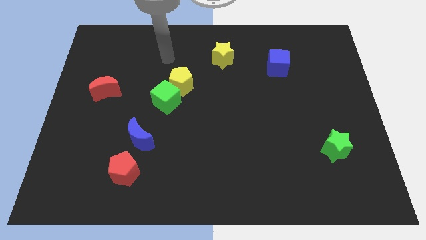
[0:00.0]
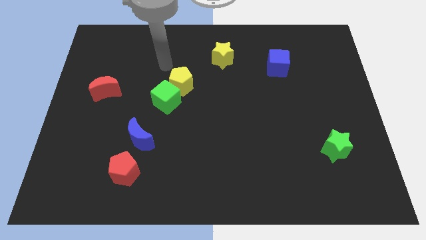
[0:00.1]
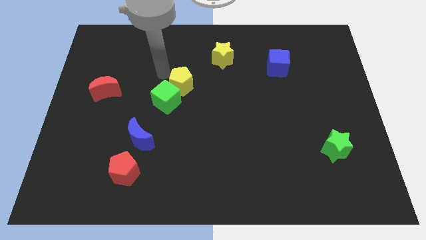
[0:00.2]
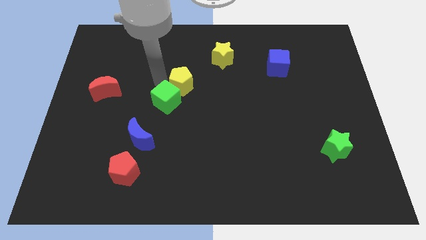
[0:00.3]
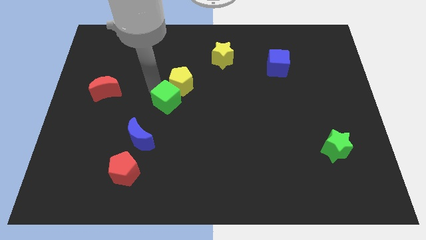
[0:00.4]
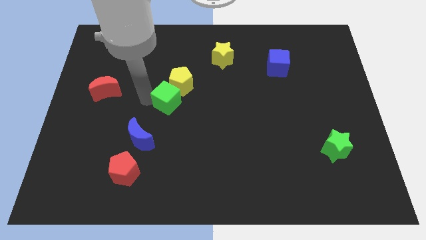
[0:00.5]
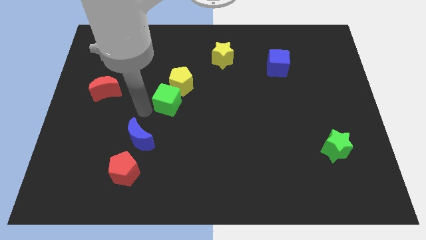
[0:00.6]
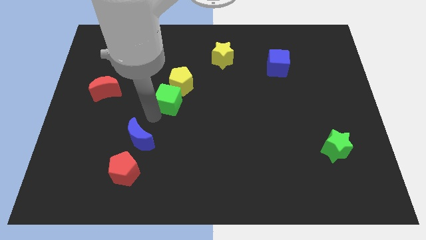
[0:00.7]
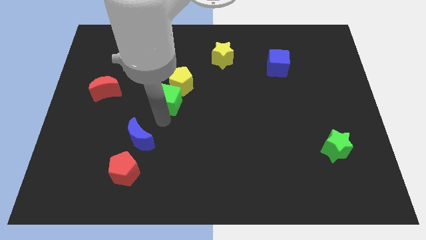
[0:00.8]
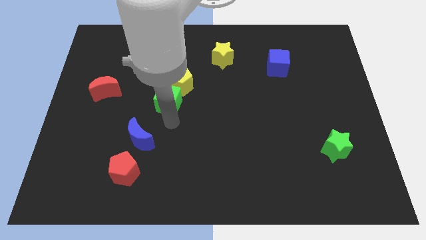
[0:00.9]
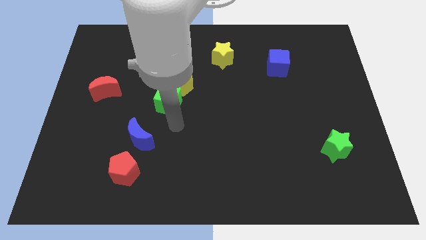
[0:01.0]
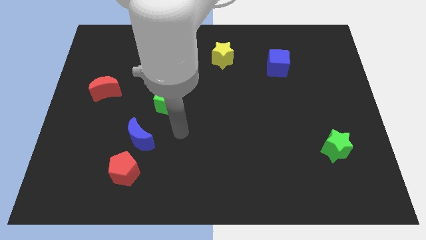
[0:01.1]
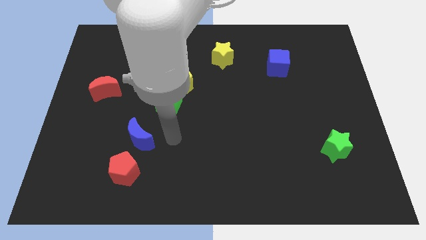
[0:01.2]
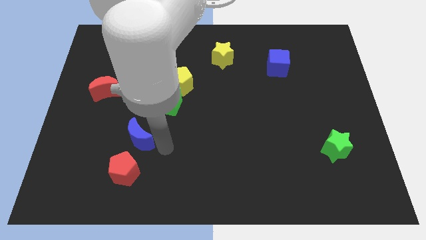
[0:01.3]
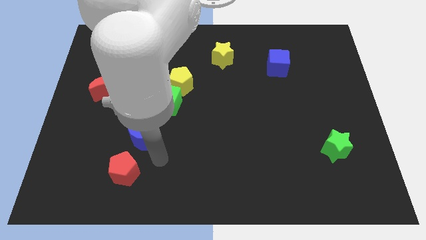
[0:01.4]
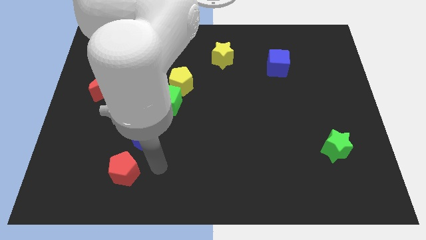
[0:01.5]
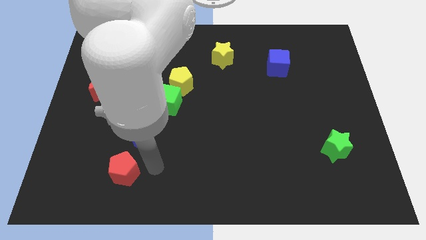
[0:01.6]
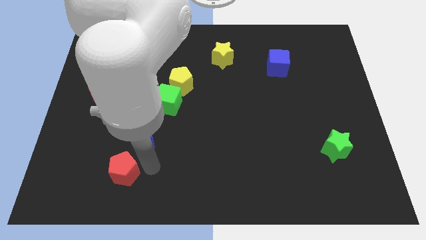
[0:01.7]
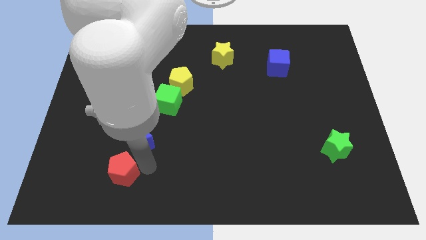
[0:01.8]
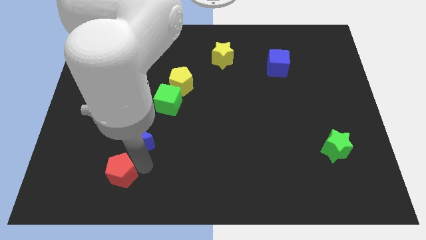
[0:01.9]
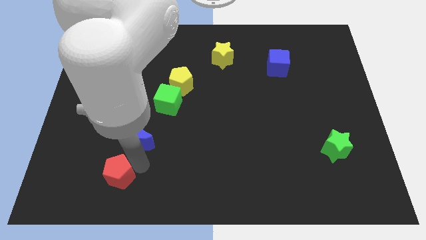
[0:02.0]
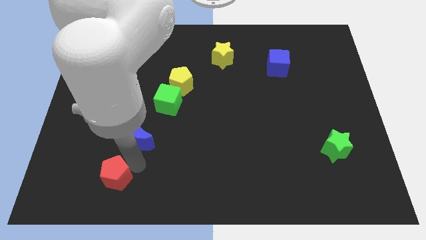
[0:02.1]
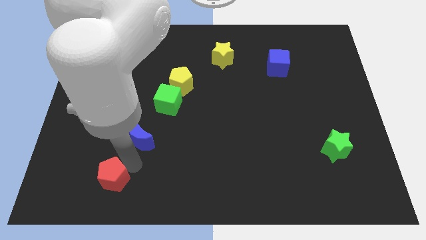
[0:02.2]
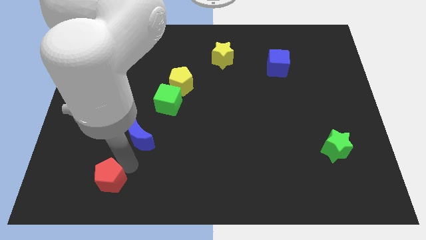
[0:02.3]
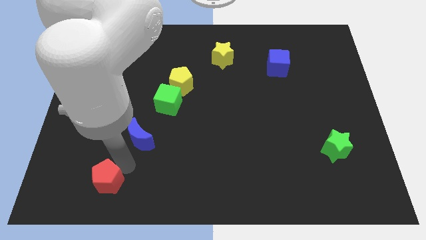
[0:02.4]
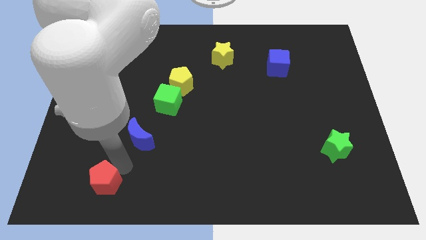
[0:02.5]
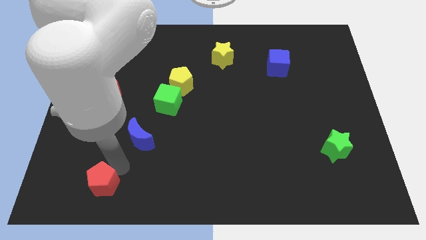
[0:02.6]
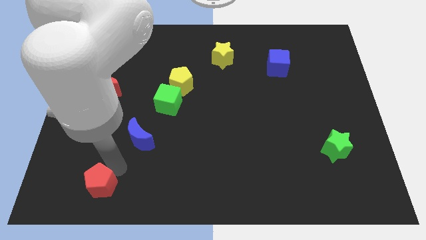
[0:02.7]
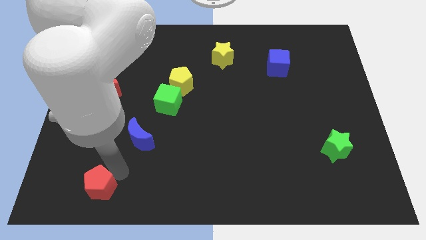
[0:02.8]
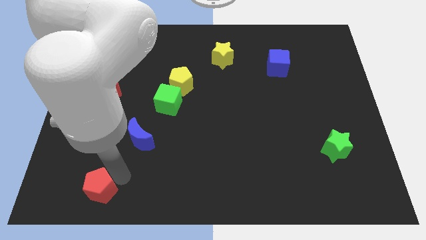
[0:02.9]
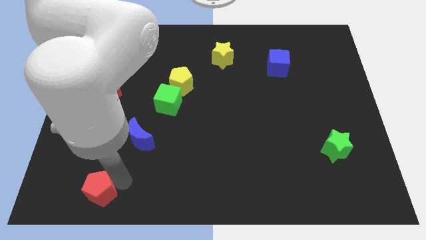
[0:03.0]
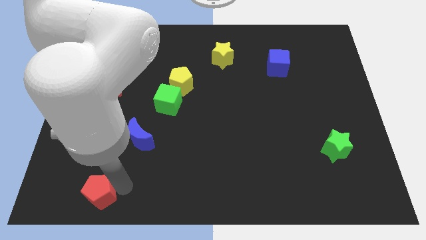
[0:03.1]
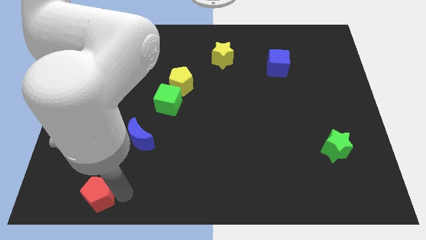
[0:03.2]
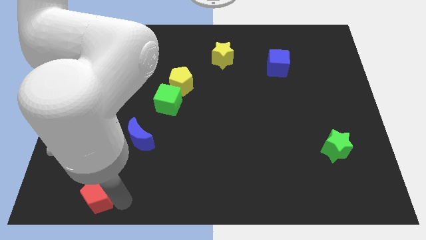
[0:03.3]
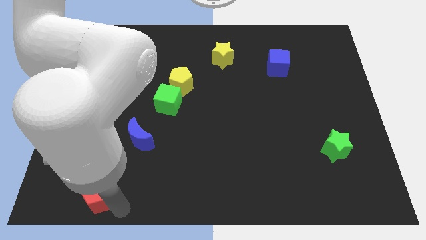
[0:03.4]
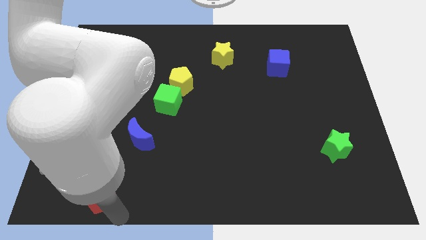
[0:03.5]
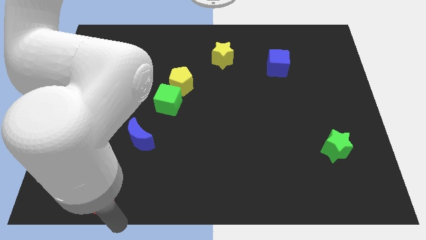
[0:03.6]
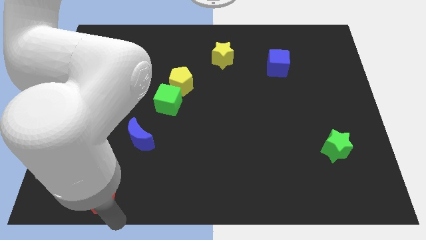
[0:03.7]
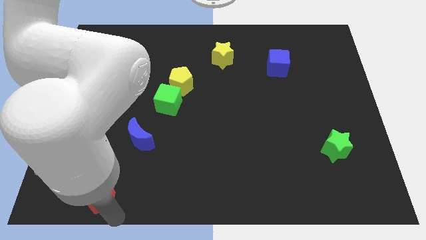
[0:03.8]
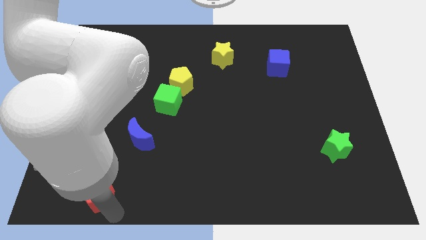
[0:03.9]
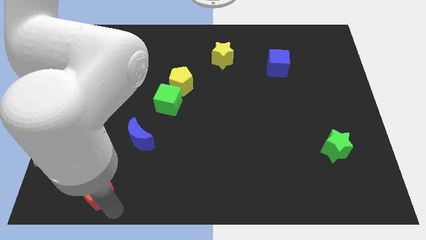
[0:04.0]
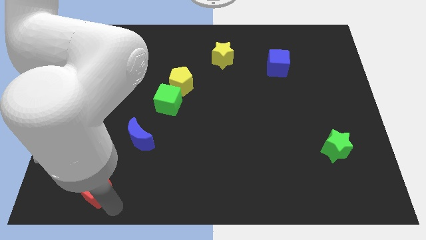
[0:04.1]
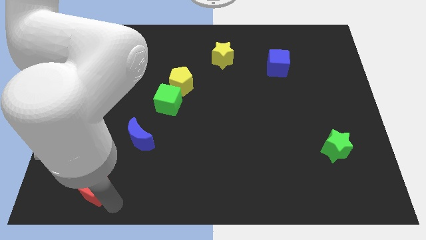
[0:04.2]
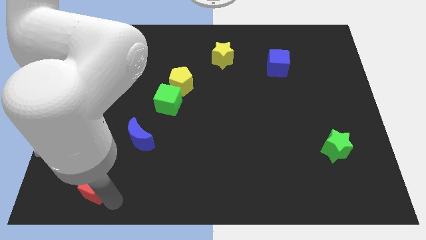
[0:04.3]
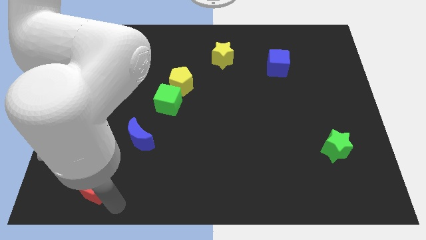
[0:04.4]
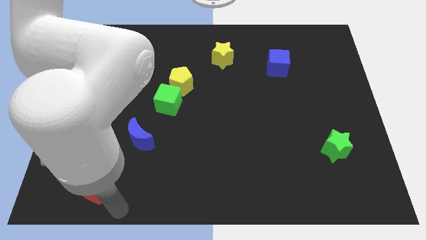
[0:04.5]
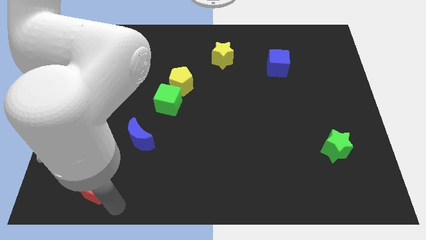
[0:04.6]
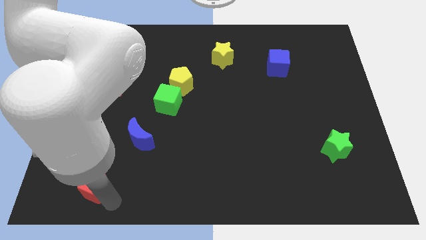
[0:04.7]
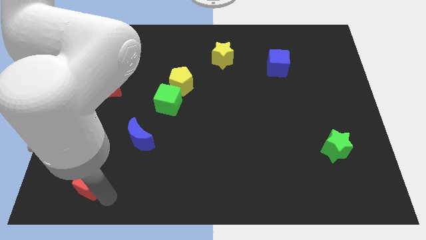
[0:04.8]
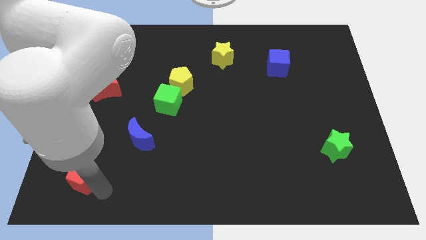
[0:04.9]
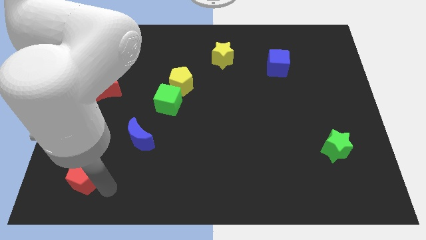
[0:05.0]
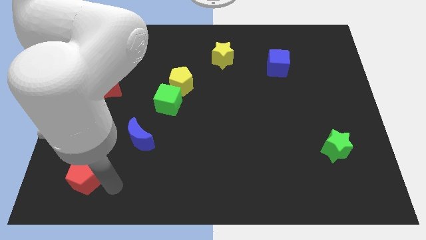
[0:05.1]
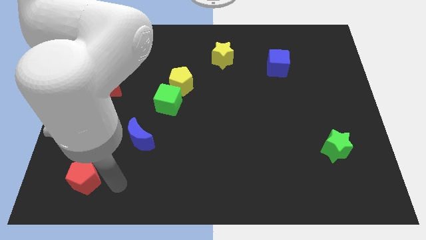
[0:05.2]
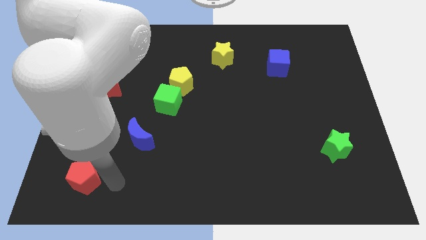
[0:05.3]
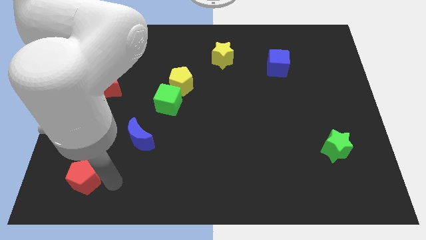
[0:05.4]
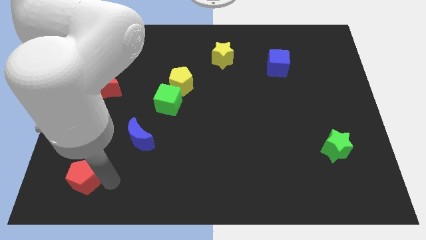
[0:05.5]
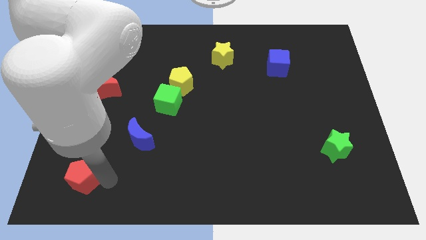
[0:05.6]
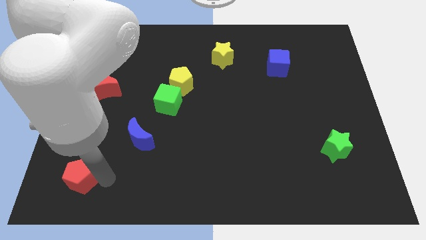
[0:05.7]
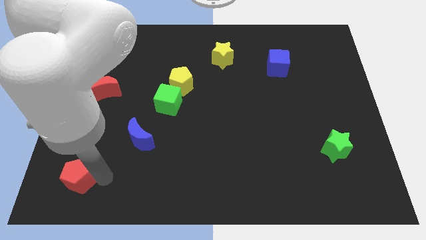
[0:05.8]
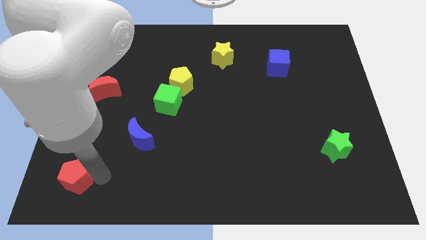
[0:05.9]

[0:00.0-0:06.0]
put the red pentagon to the lower left corner
